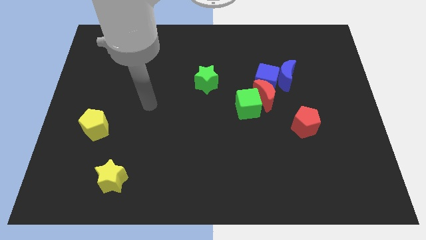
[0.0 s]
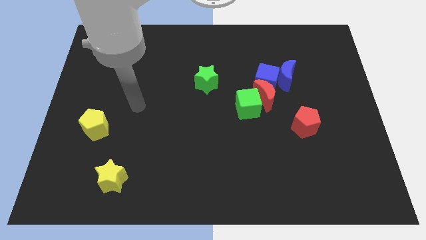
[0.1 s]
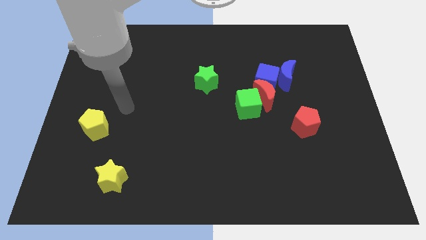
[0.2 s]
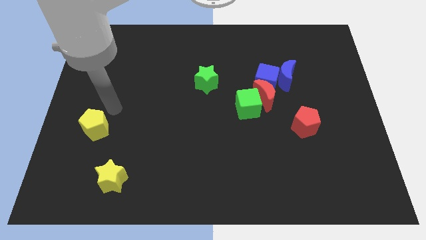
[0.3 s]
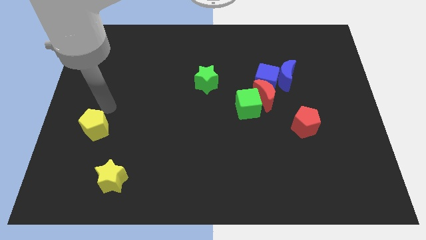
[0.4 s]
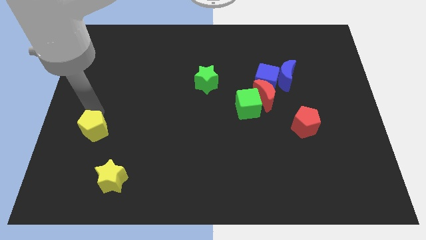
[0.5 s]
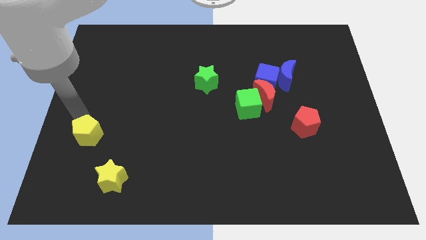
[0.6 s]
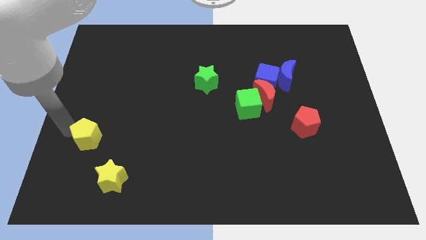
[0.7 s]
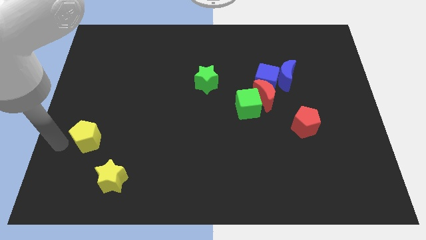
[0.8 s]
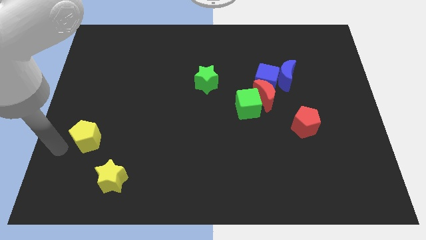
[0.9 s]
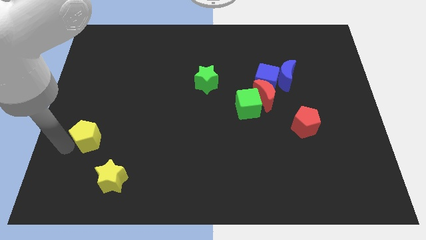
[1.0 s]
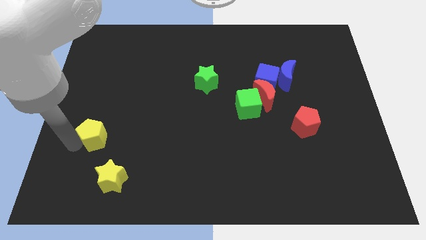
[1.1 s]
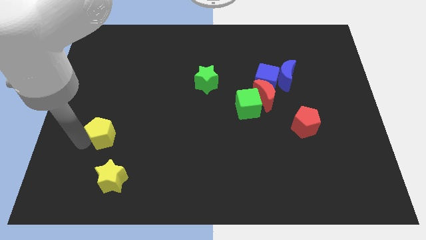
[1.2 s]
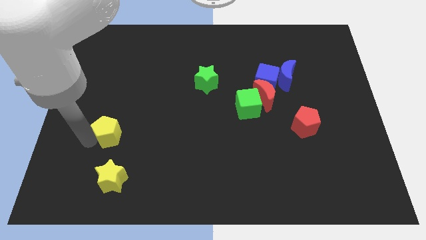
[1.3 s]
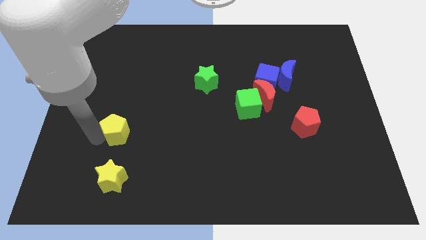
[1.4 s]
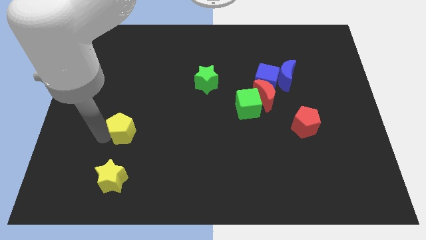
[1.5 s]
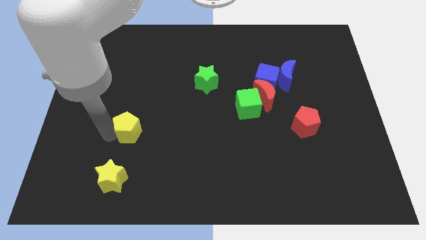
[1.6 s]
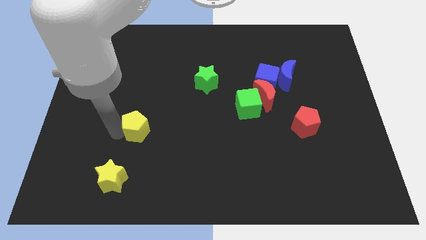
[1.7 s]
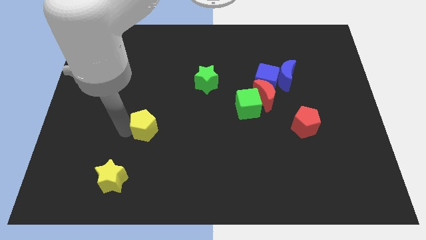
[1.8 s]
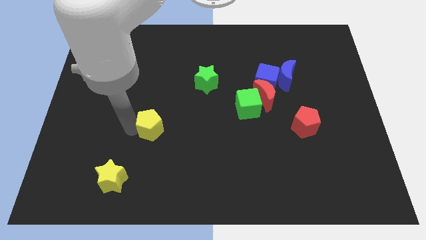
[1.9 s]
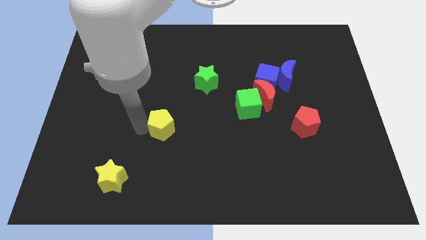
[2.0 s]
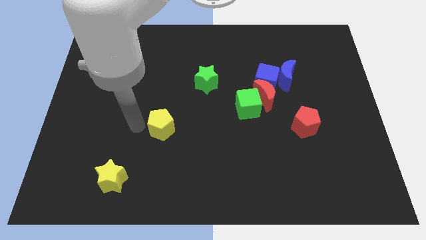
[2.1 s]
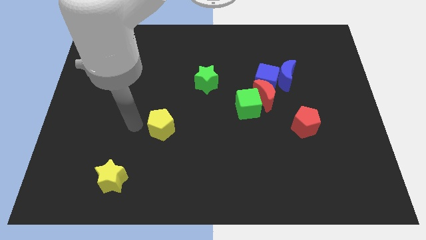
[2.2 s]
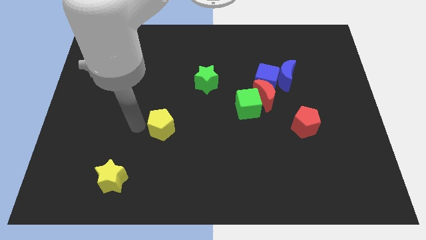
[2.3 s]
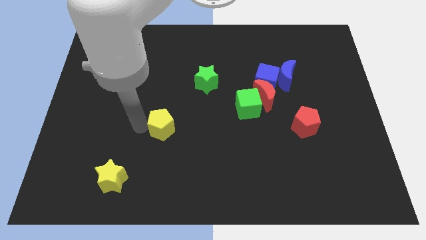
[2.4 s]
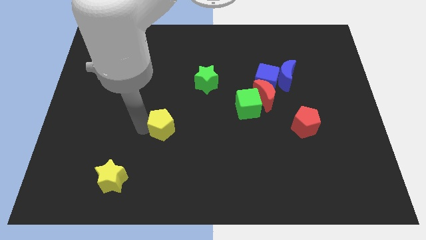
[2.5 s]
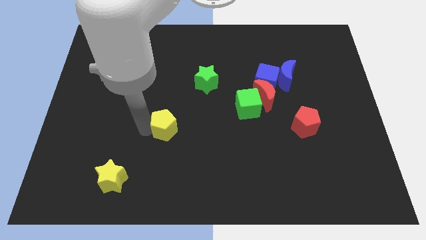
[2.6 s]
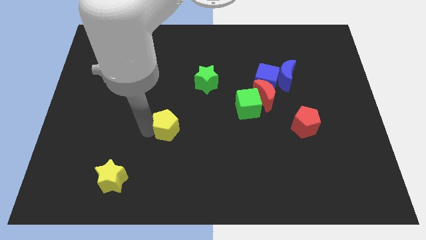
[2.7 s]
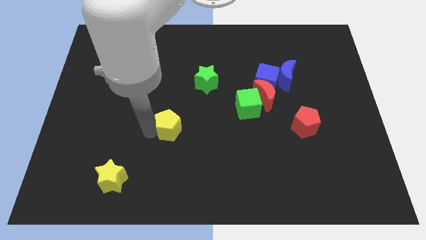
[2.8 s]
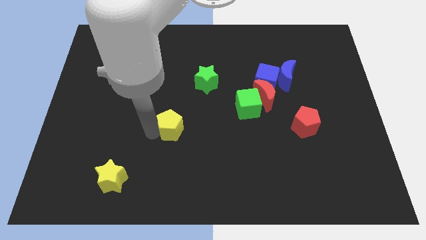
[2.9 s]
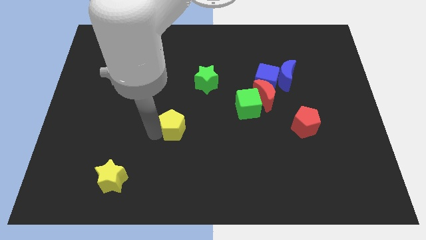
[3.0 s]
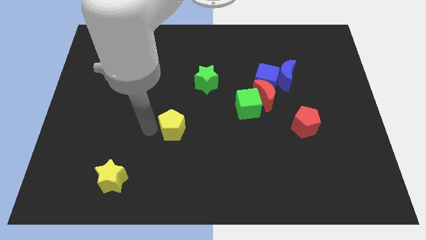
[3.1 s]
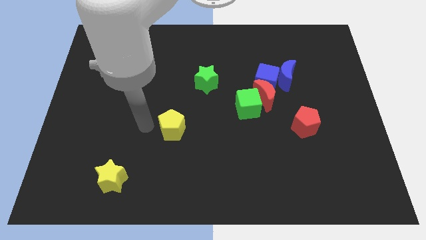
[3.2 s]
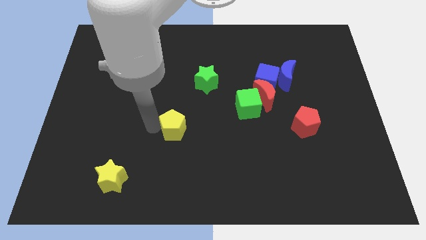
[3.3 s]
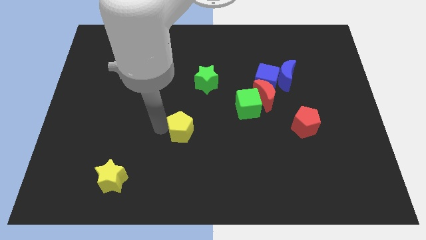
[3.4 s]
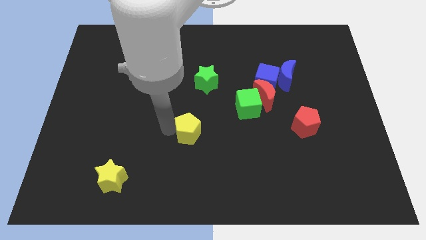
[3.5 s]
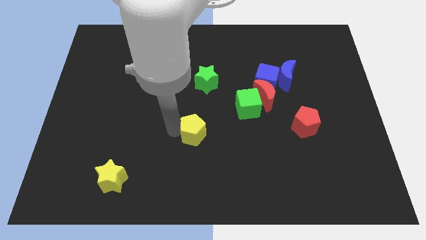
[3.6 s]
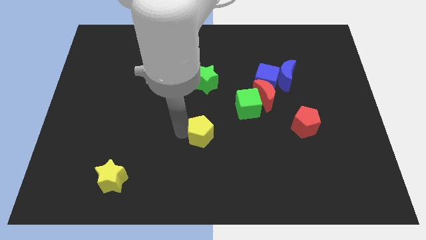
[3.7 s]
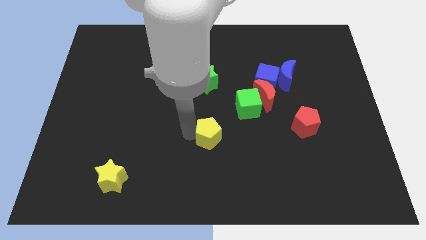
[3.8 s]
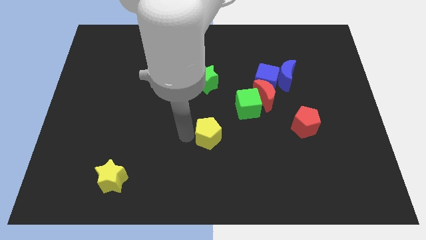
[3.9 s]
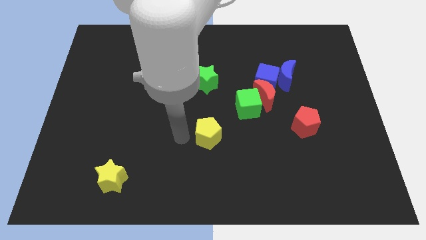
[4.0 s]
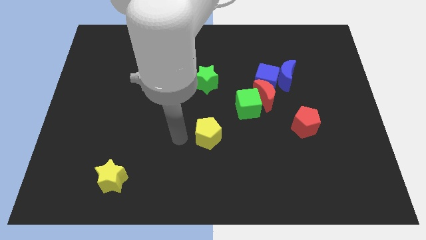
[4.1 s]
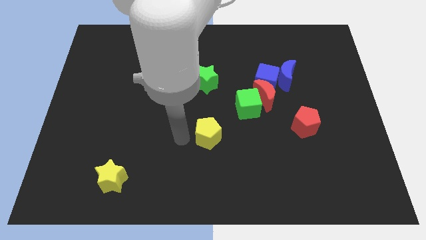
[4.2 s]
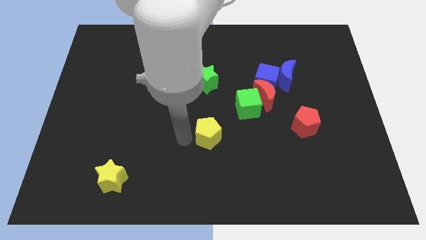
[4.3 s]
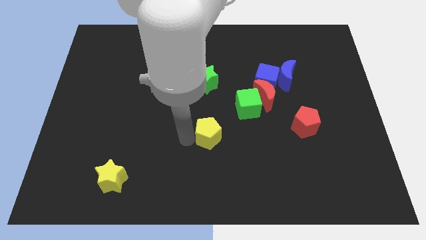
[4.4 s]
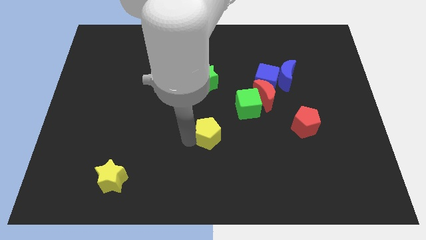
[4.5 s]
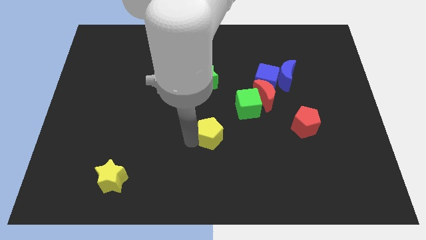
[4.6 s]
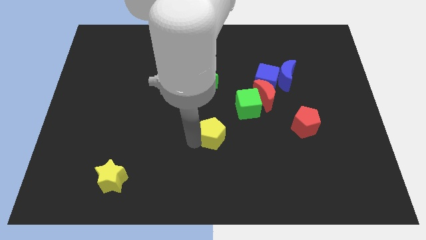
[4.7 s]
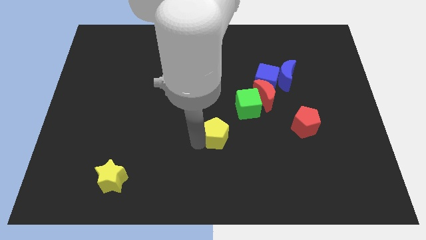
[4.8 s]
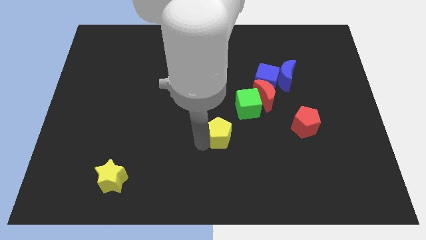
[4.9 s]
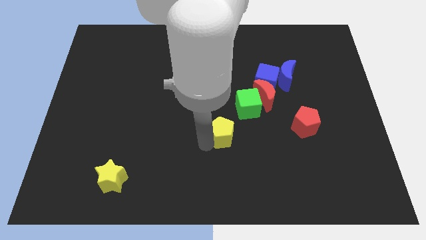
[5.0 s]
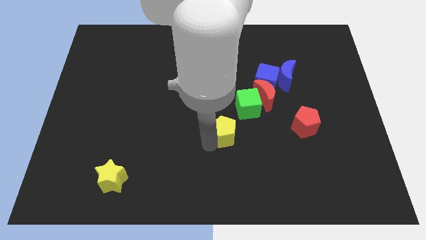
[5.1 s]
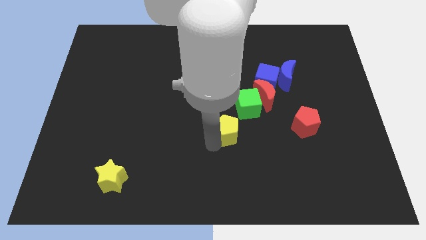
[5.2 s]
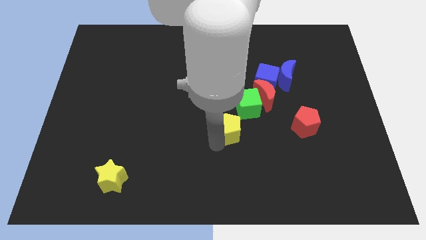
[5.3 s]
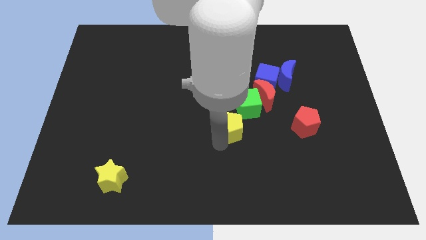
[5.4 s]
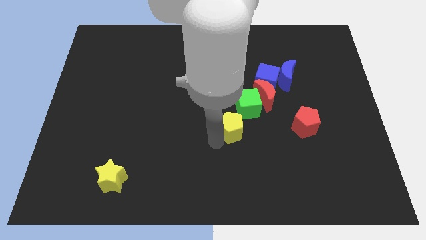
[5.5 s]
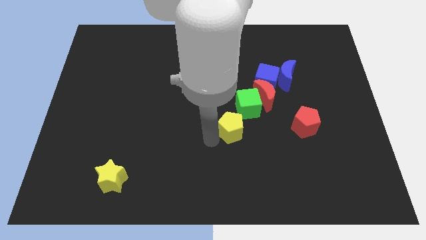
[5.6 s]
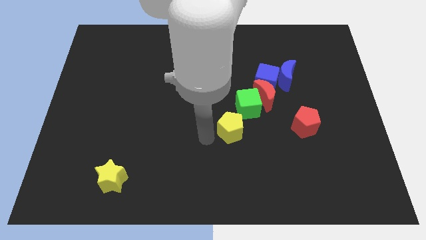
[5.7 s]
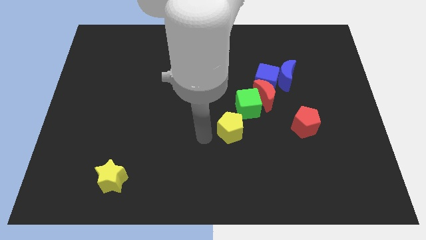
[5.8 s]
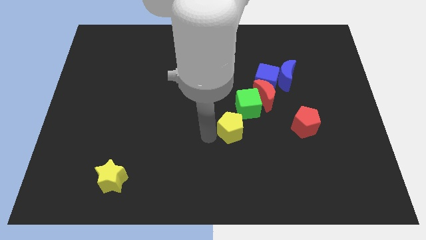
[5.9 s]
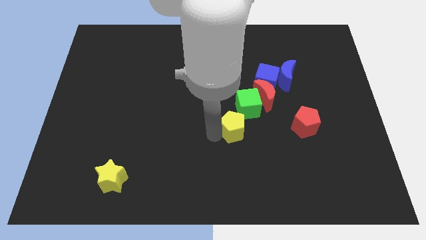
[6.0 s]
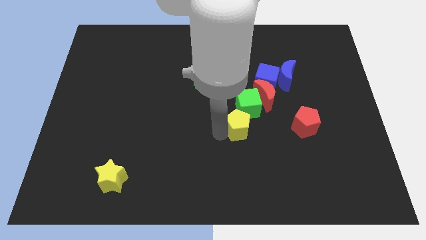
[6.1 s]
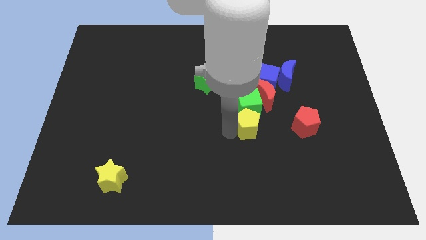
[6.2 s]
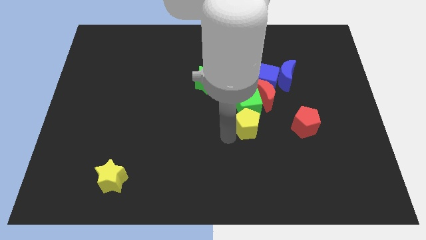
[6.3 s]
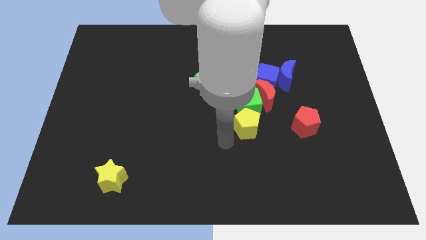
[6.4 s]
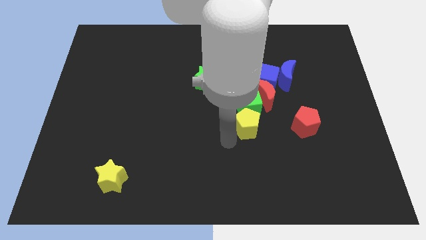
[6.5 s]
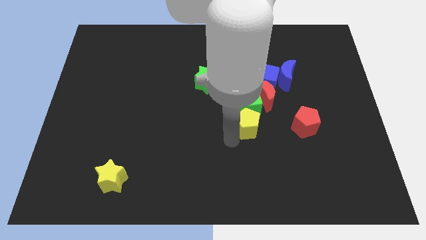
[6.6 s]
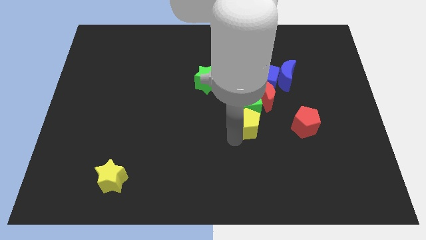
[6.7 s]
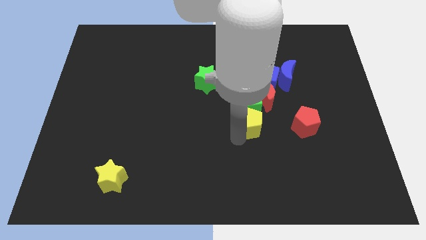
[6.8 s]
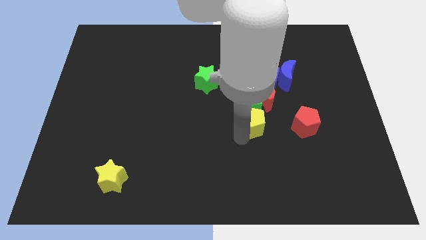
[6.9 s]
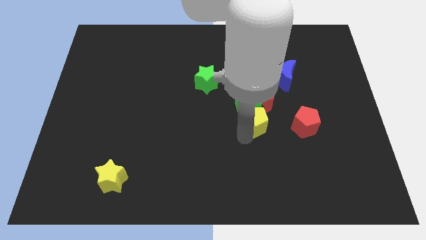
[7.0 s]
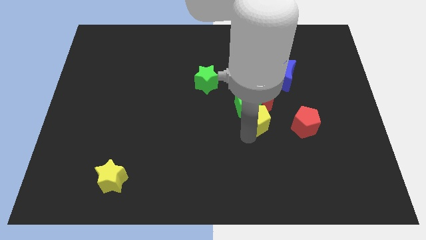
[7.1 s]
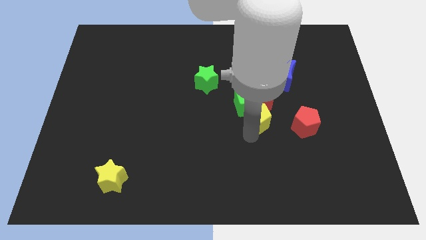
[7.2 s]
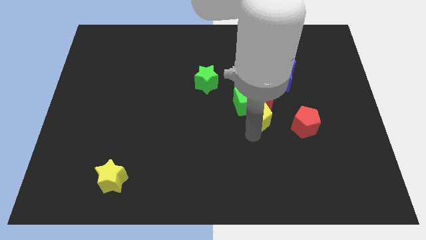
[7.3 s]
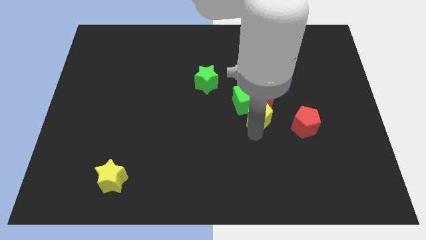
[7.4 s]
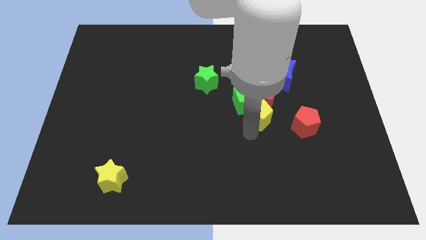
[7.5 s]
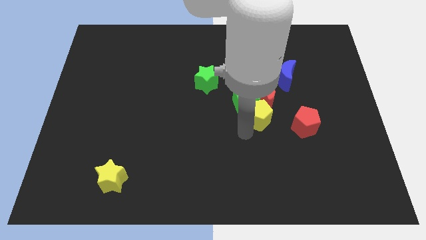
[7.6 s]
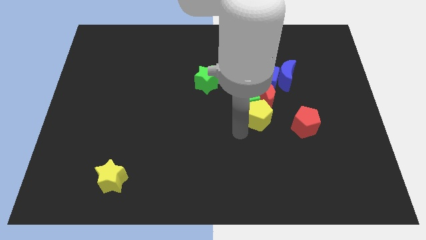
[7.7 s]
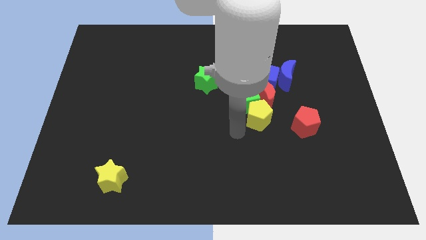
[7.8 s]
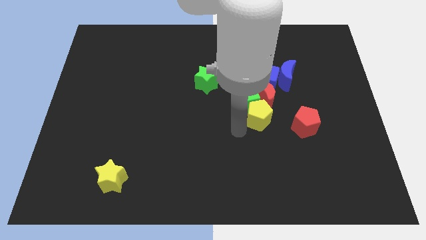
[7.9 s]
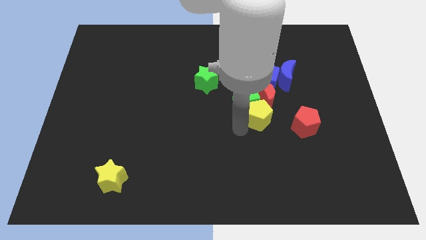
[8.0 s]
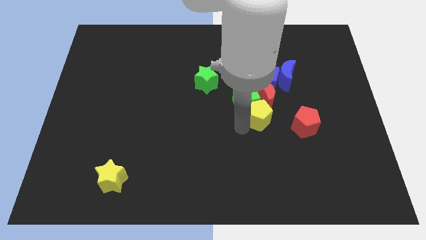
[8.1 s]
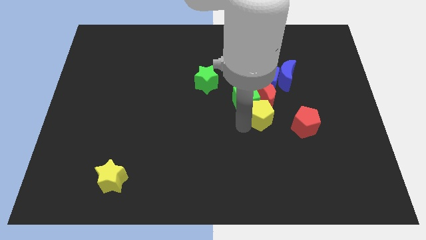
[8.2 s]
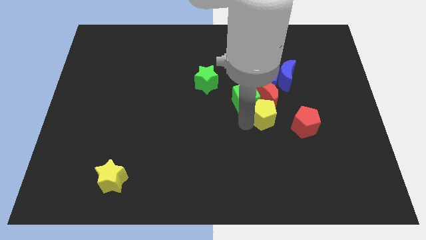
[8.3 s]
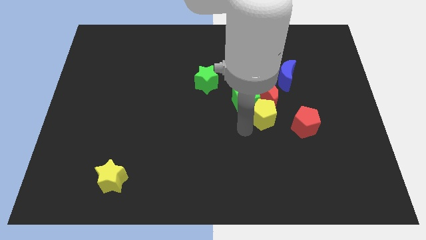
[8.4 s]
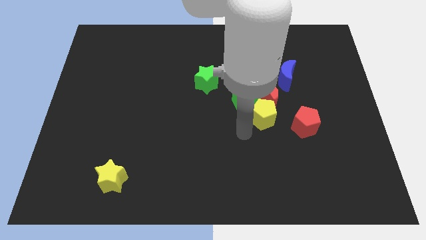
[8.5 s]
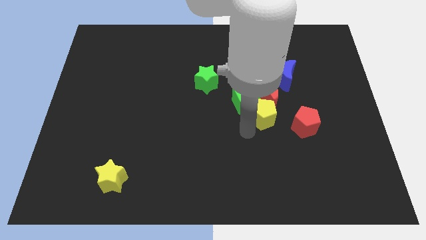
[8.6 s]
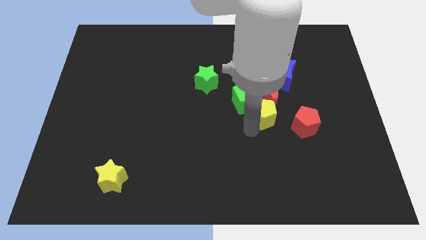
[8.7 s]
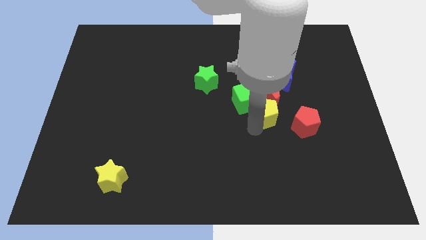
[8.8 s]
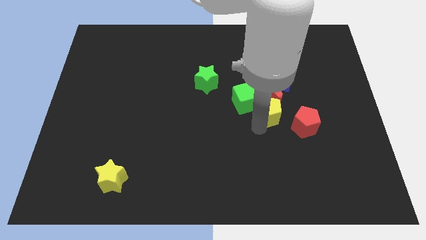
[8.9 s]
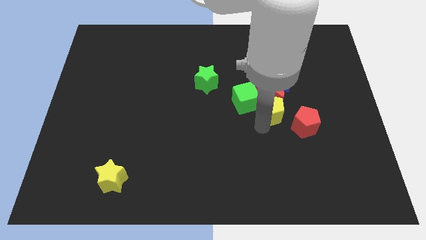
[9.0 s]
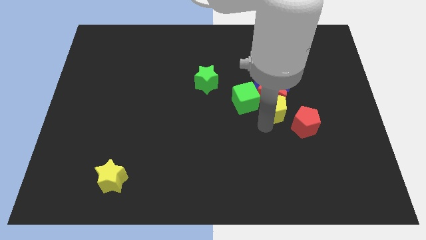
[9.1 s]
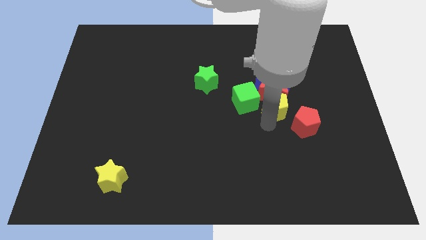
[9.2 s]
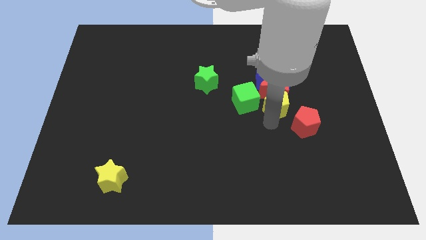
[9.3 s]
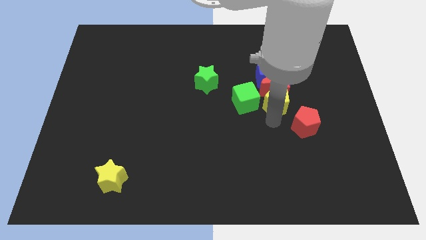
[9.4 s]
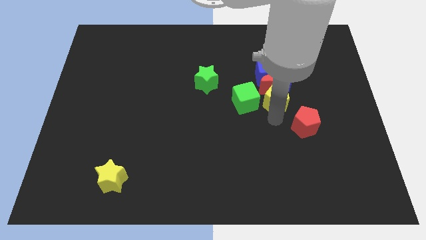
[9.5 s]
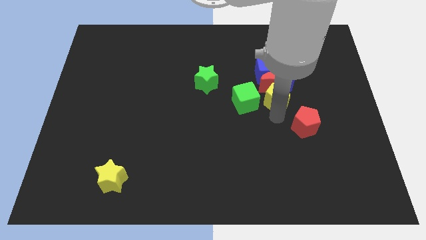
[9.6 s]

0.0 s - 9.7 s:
move the yellow pentagon diagonally down and to the right of the blue cube
